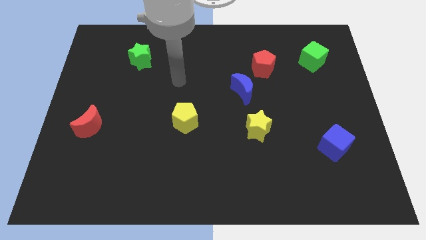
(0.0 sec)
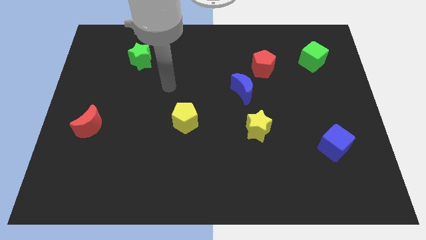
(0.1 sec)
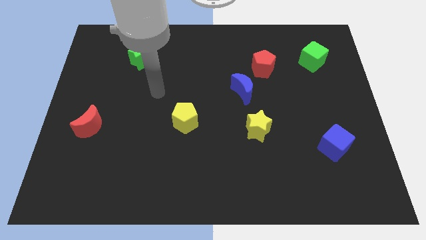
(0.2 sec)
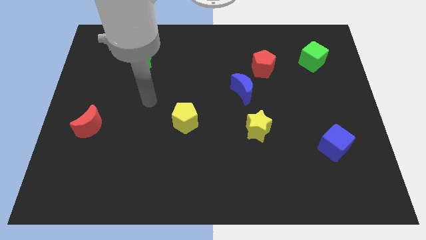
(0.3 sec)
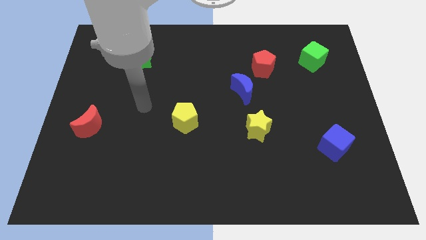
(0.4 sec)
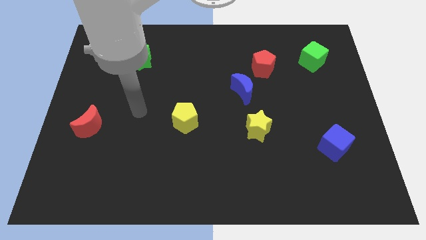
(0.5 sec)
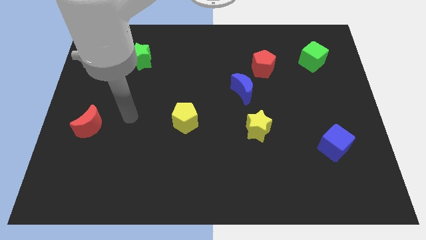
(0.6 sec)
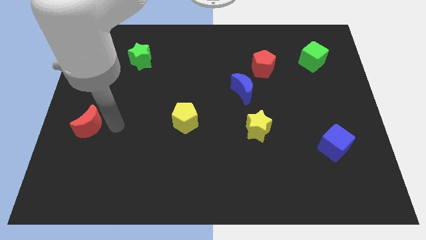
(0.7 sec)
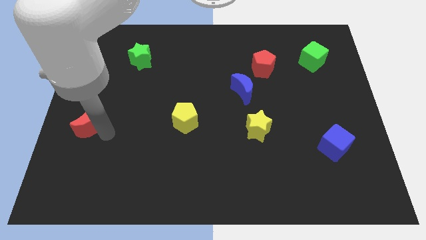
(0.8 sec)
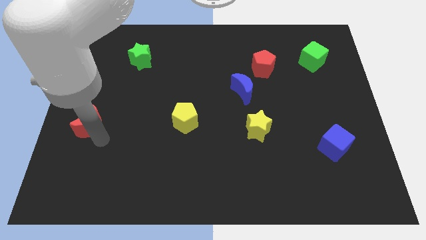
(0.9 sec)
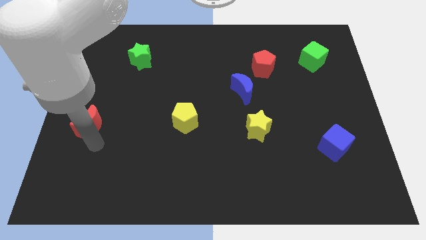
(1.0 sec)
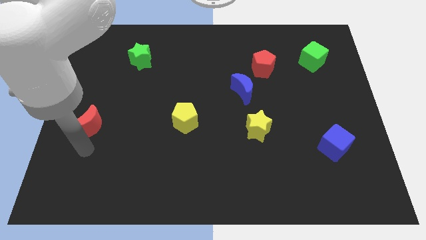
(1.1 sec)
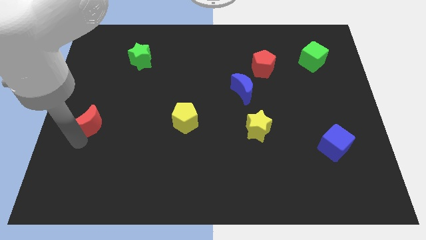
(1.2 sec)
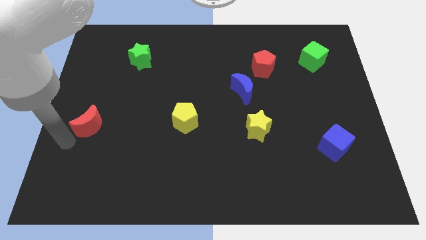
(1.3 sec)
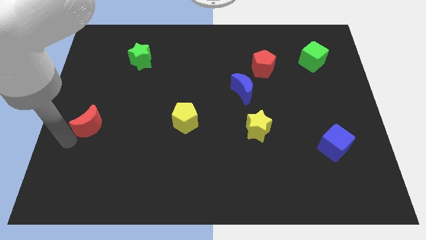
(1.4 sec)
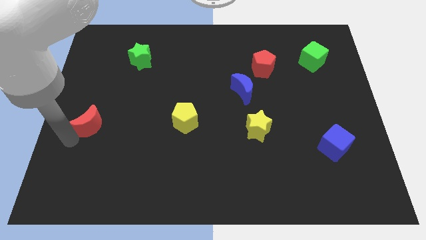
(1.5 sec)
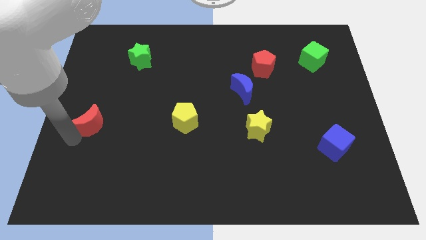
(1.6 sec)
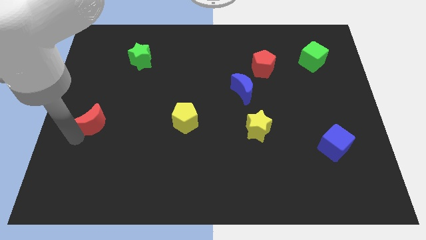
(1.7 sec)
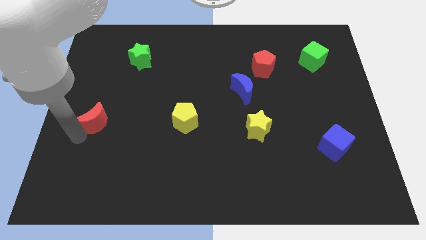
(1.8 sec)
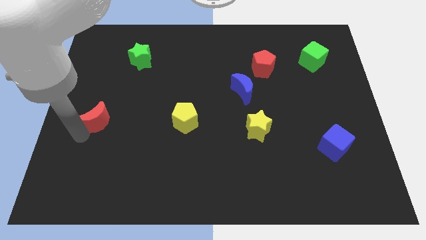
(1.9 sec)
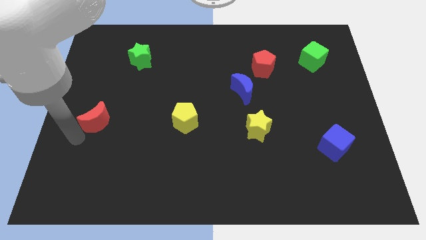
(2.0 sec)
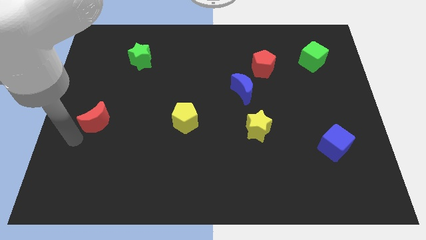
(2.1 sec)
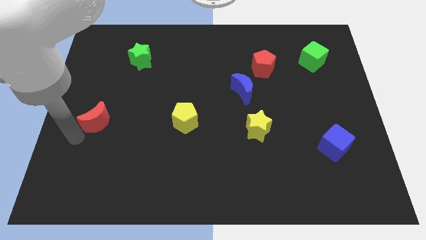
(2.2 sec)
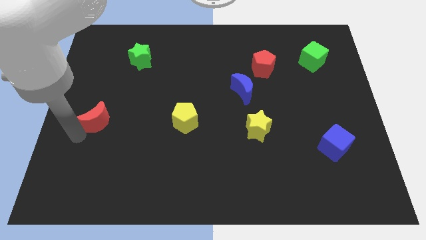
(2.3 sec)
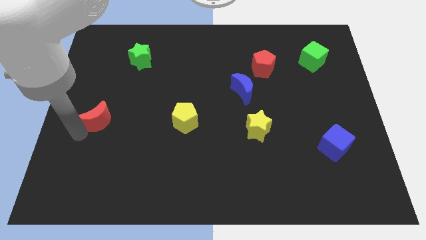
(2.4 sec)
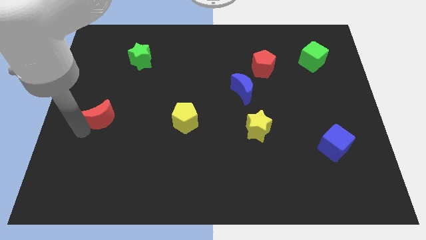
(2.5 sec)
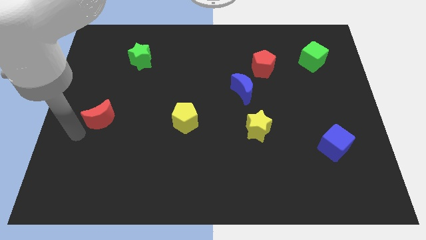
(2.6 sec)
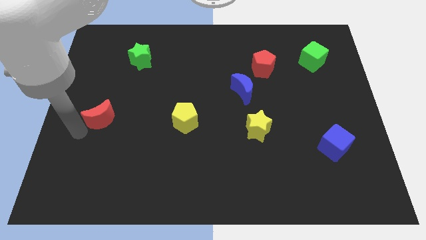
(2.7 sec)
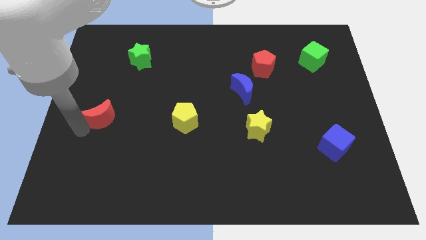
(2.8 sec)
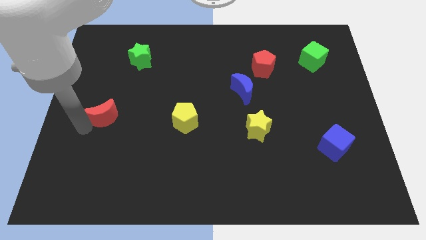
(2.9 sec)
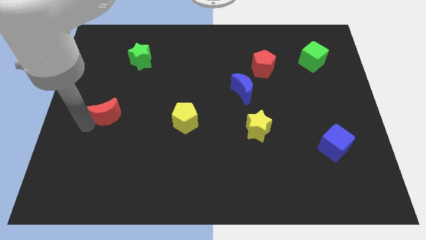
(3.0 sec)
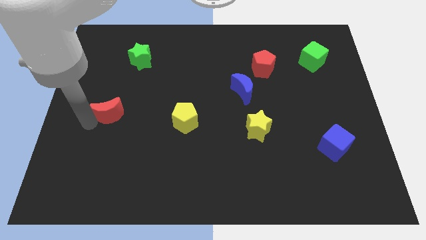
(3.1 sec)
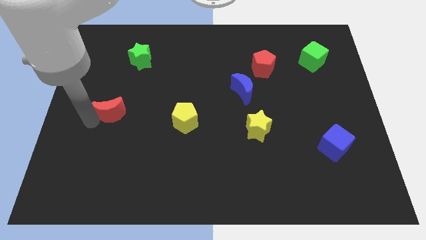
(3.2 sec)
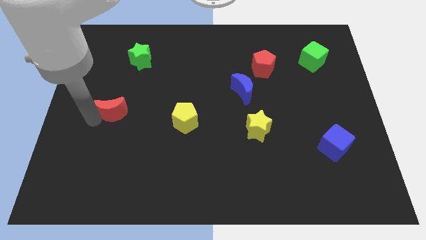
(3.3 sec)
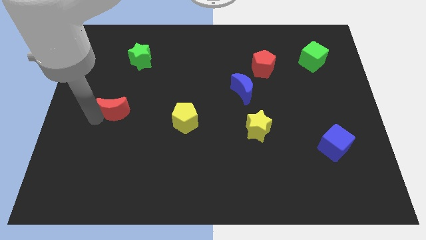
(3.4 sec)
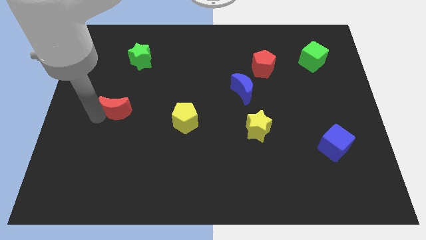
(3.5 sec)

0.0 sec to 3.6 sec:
move the red moon slightly upwards and then right

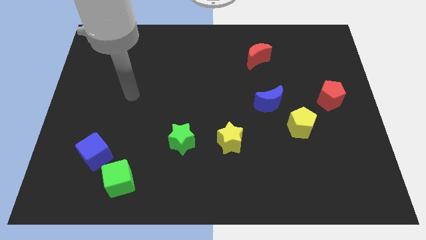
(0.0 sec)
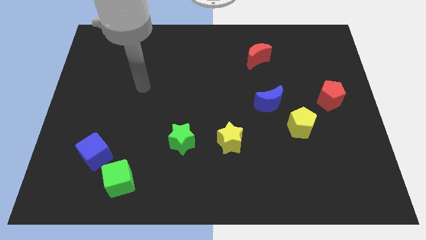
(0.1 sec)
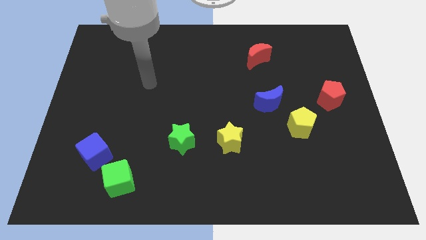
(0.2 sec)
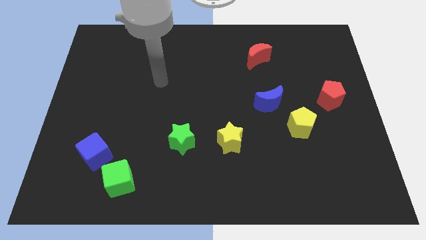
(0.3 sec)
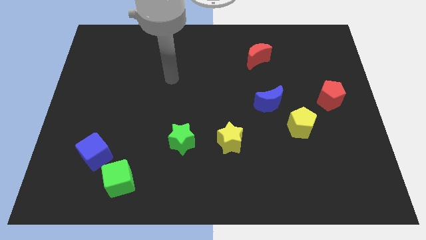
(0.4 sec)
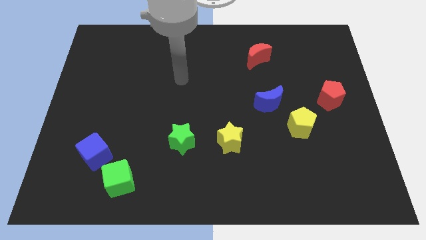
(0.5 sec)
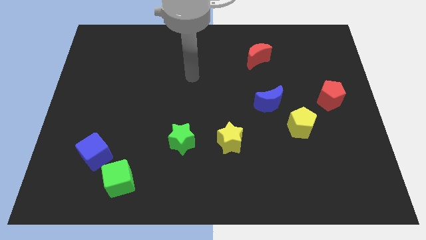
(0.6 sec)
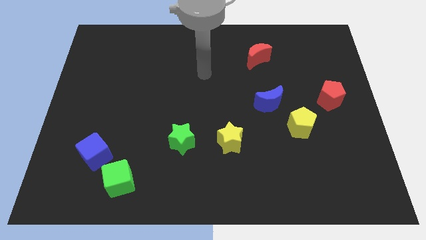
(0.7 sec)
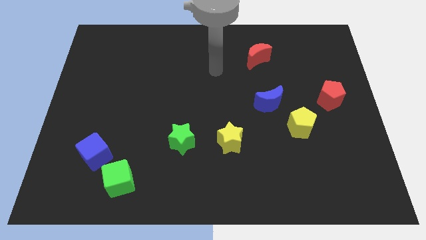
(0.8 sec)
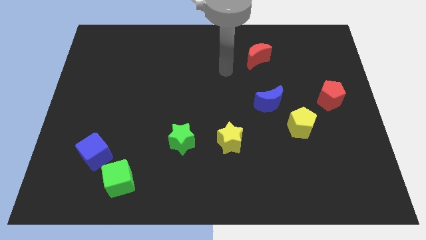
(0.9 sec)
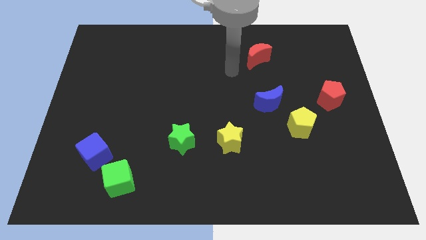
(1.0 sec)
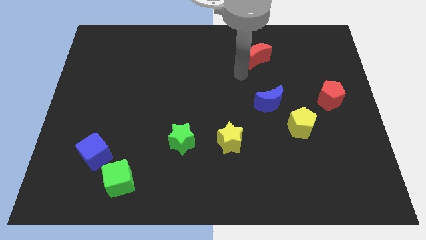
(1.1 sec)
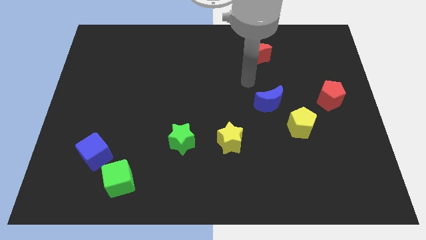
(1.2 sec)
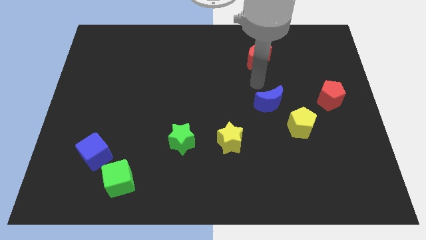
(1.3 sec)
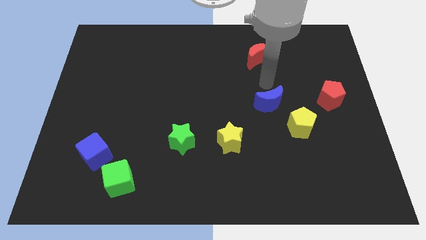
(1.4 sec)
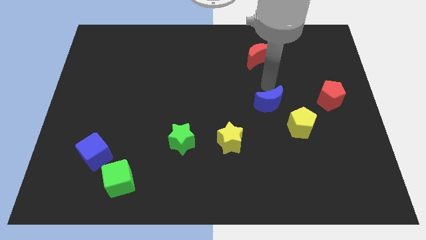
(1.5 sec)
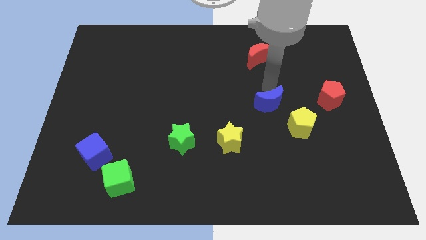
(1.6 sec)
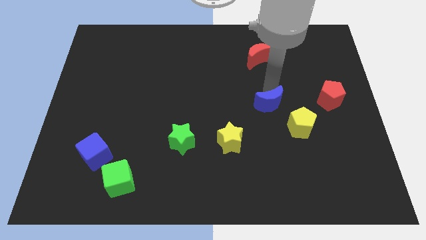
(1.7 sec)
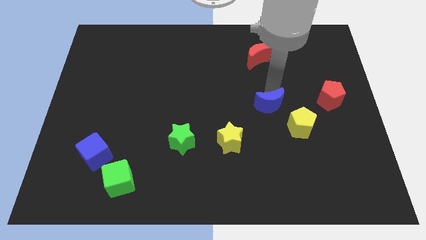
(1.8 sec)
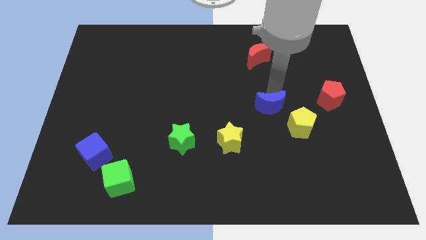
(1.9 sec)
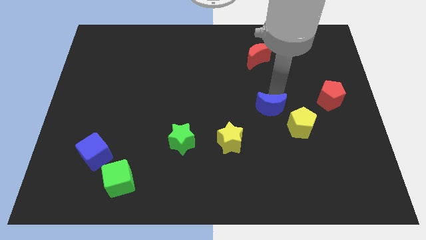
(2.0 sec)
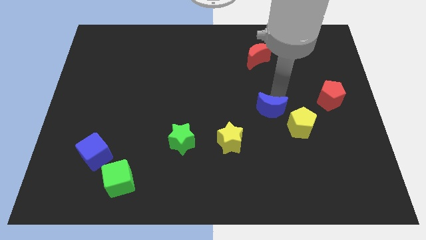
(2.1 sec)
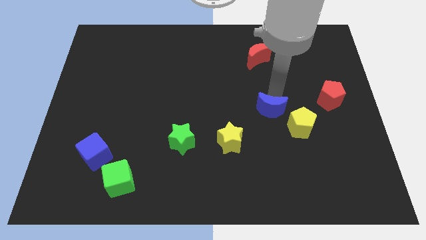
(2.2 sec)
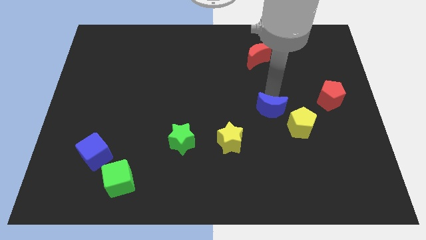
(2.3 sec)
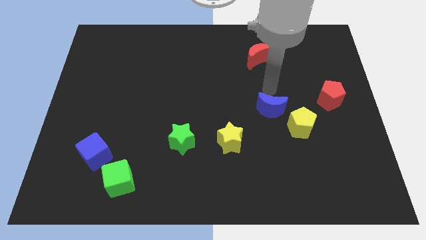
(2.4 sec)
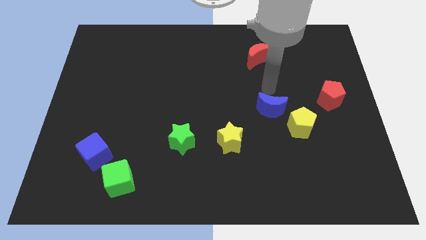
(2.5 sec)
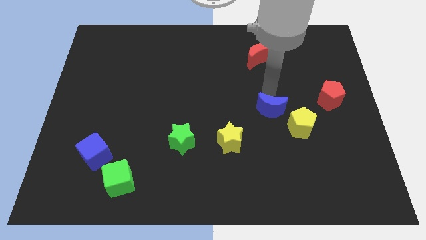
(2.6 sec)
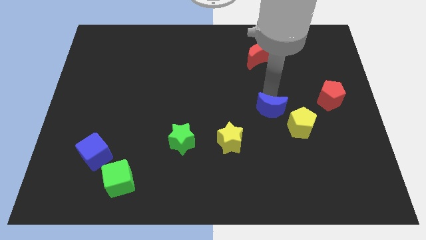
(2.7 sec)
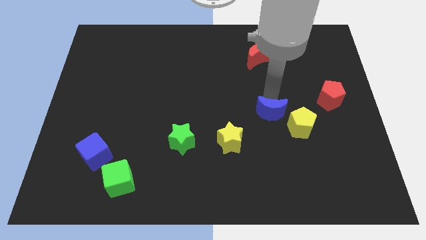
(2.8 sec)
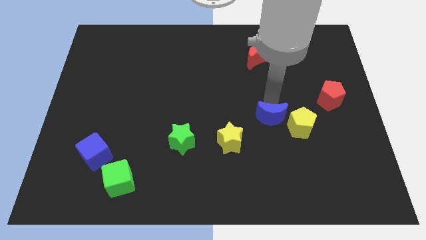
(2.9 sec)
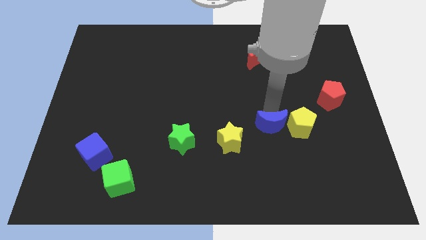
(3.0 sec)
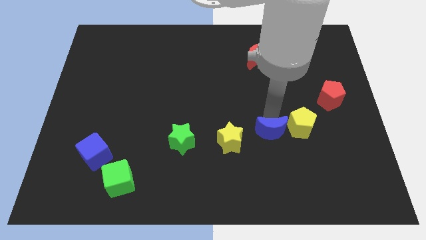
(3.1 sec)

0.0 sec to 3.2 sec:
push the blue moon slightly downwards

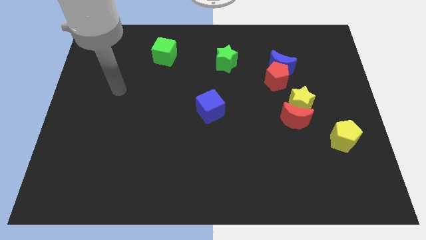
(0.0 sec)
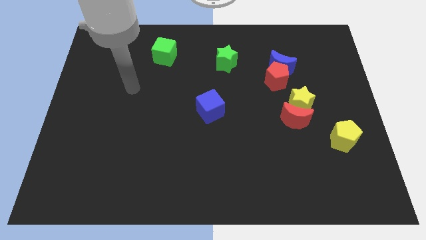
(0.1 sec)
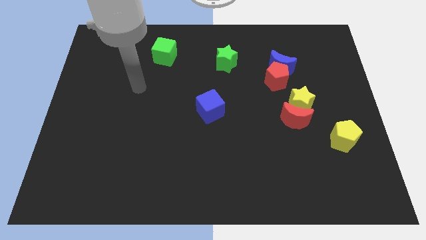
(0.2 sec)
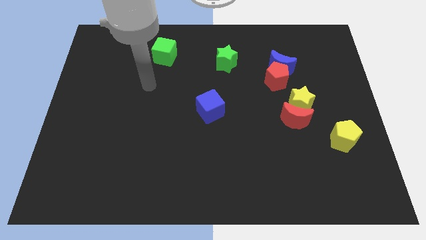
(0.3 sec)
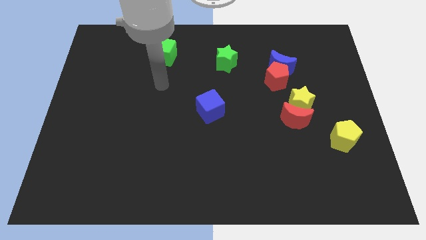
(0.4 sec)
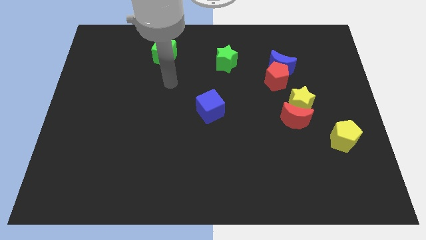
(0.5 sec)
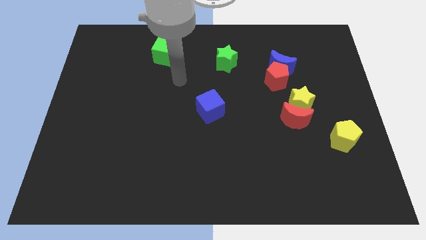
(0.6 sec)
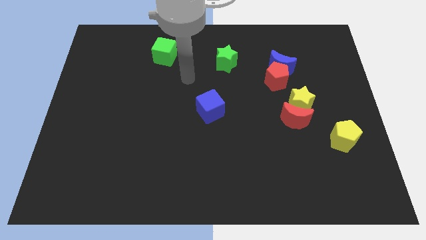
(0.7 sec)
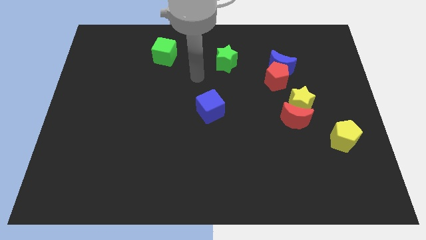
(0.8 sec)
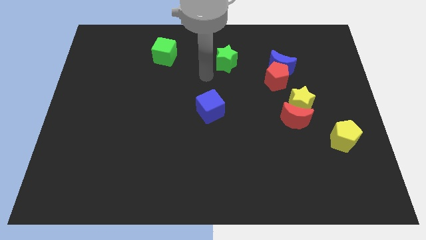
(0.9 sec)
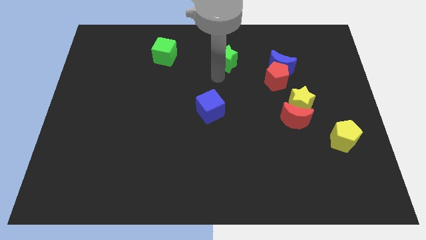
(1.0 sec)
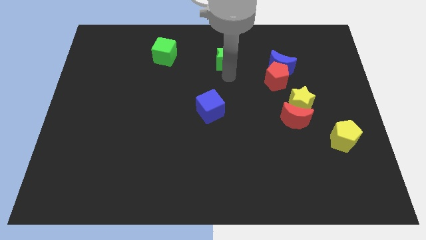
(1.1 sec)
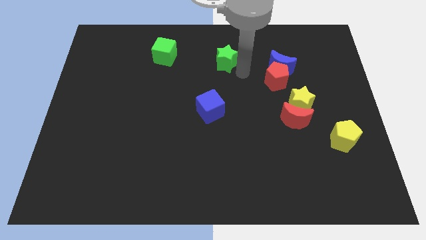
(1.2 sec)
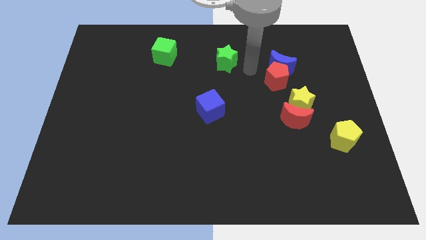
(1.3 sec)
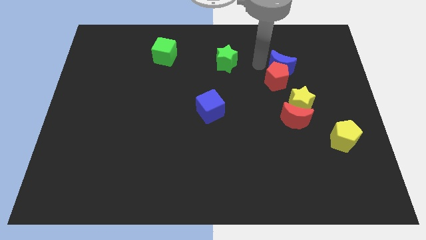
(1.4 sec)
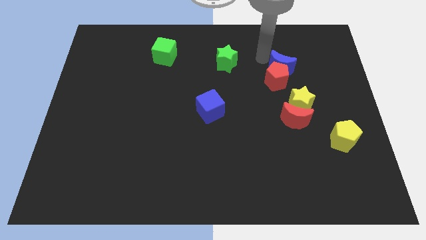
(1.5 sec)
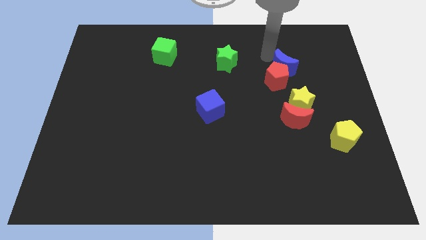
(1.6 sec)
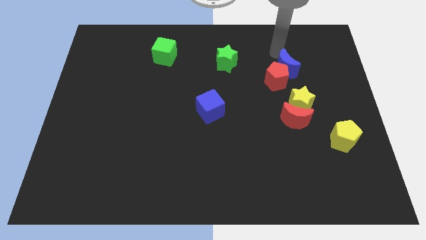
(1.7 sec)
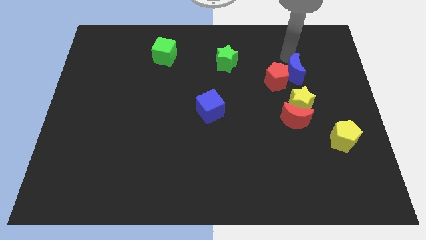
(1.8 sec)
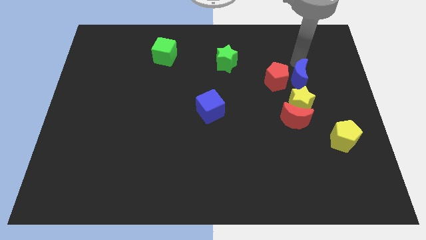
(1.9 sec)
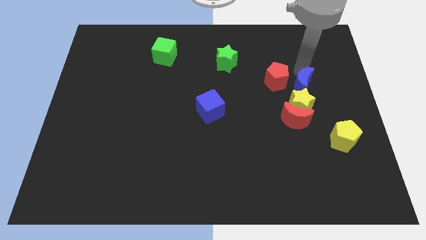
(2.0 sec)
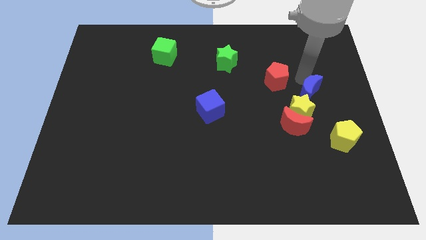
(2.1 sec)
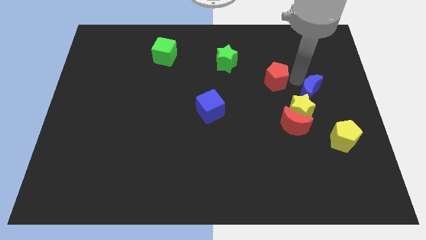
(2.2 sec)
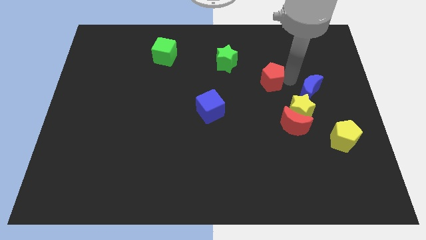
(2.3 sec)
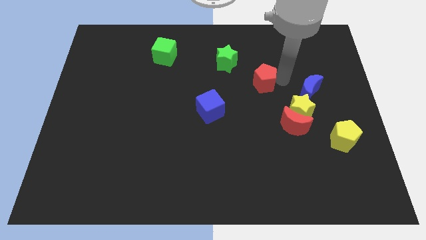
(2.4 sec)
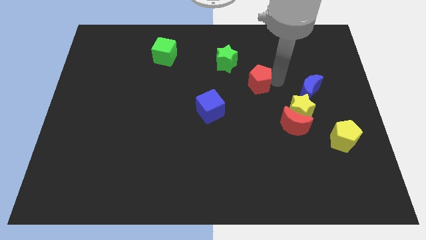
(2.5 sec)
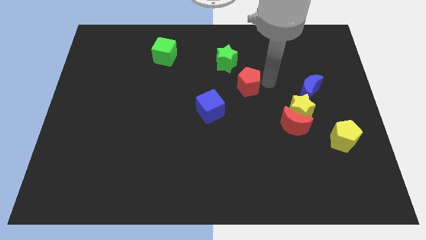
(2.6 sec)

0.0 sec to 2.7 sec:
move the red pentagon to the left a little
